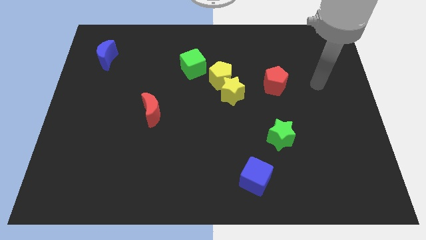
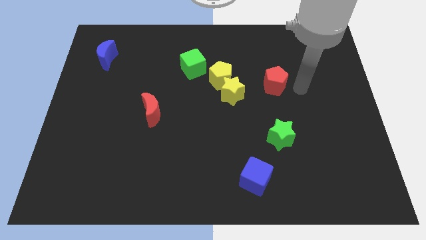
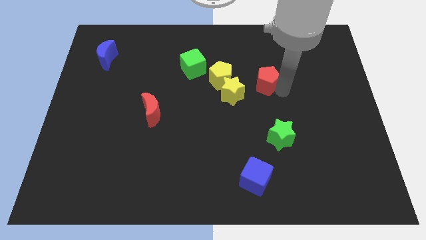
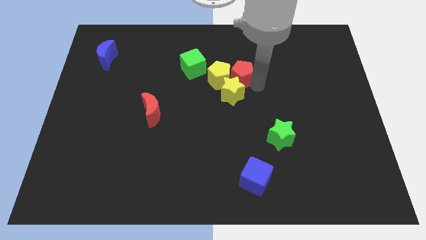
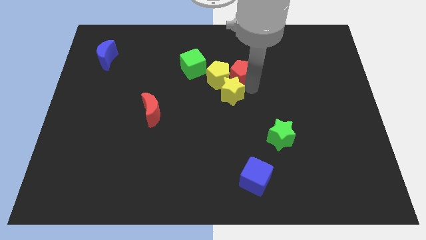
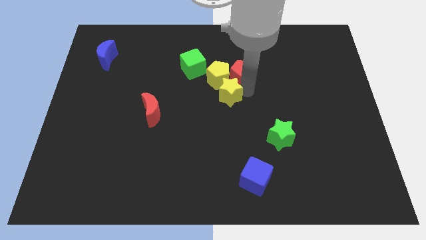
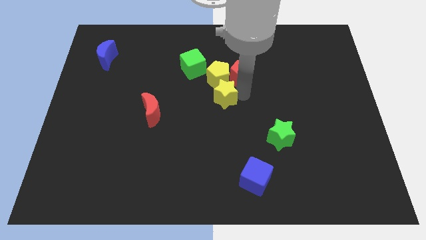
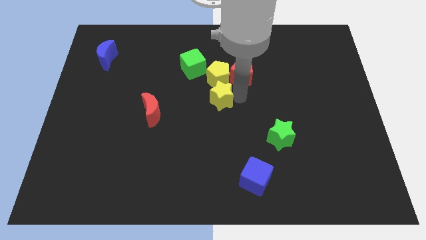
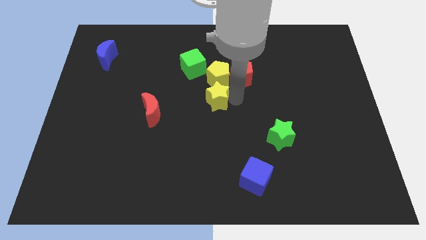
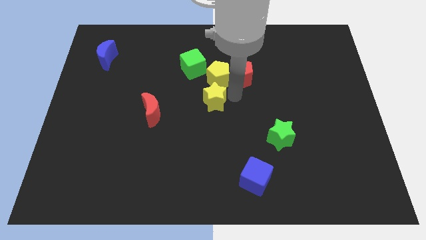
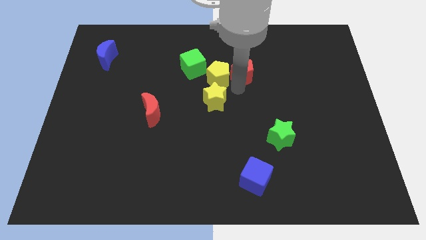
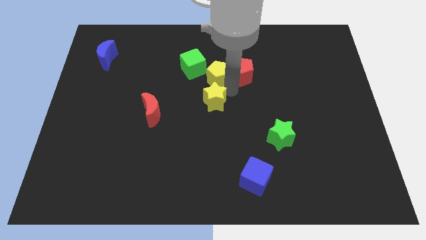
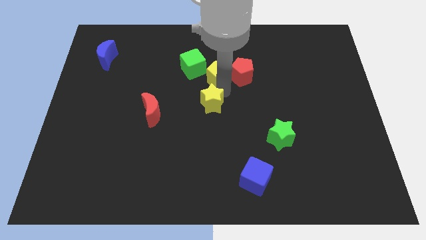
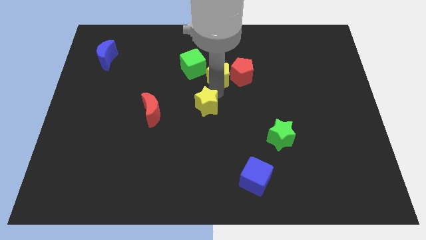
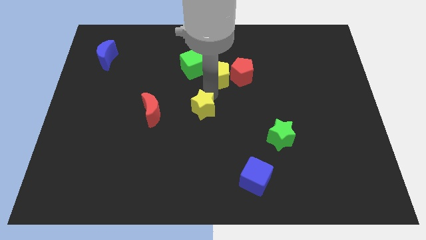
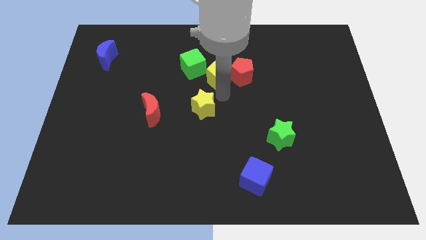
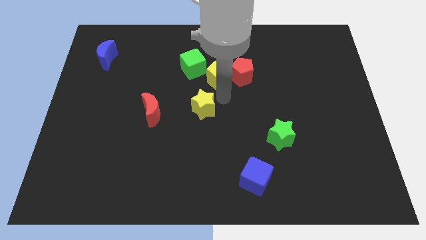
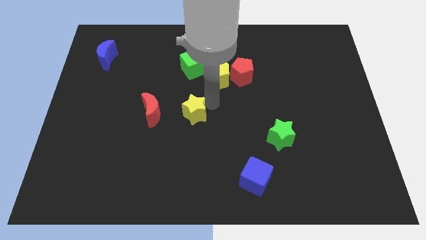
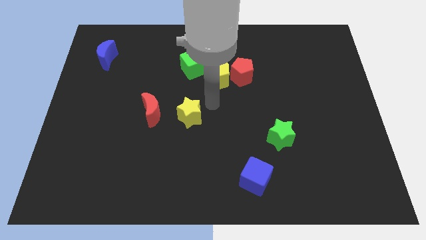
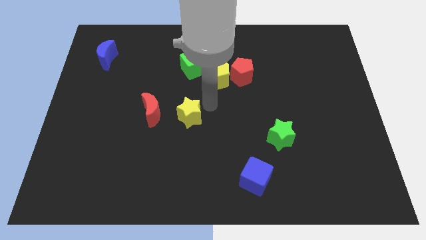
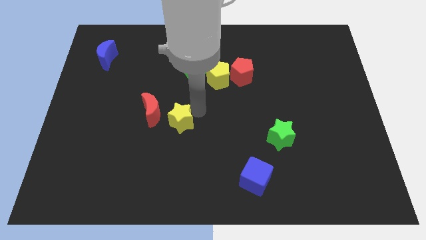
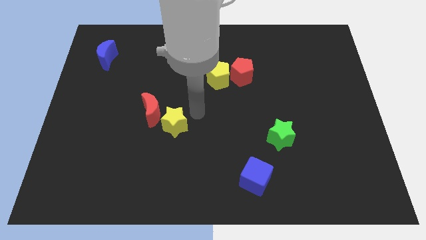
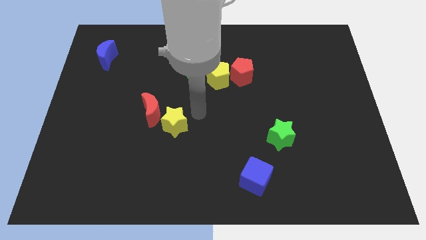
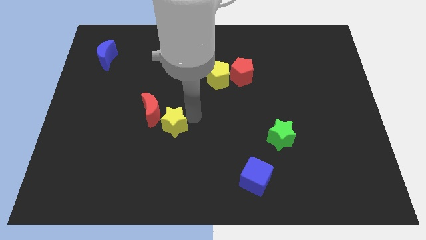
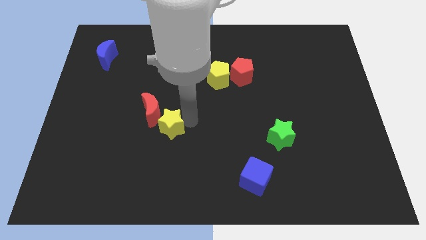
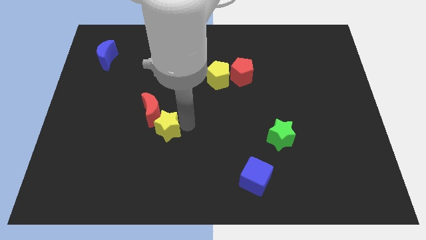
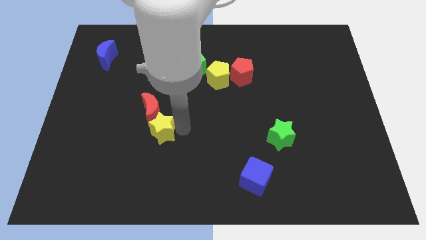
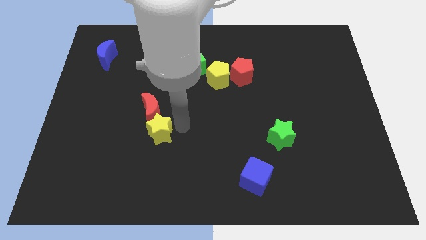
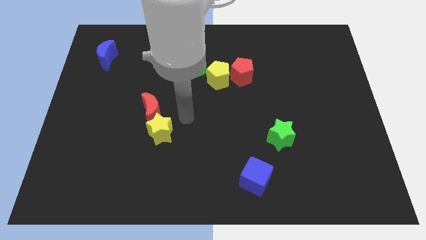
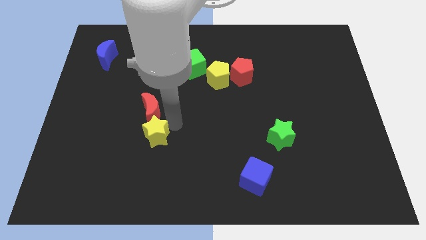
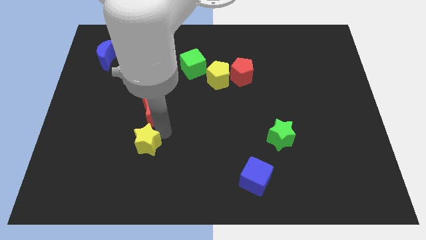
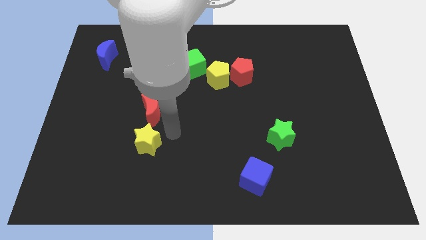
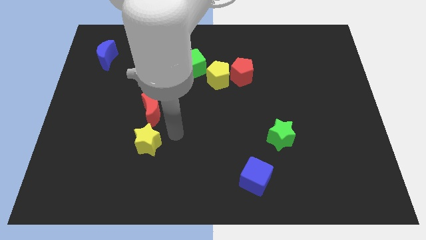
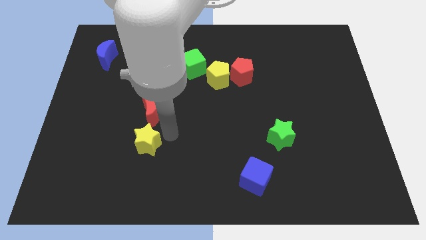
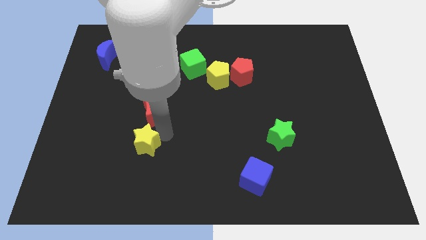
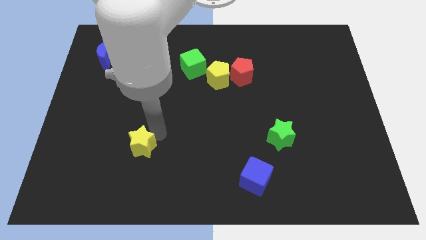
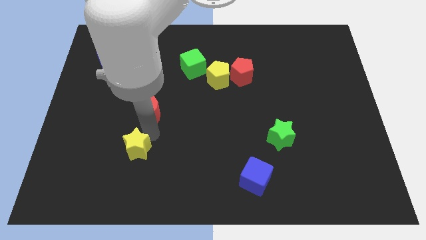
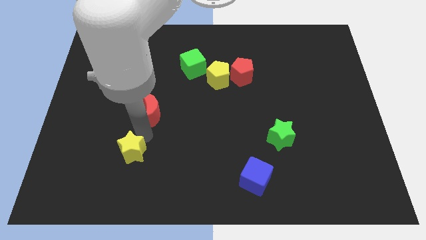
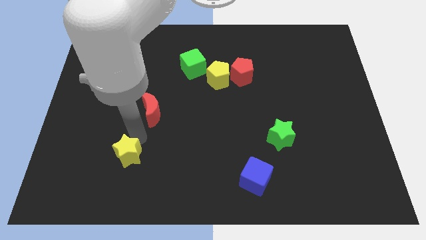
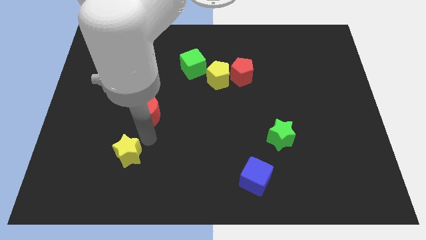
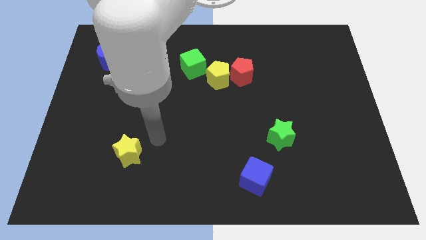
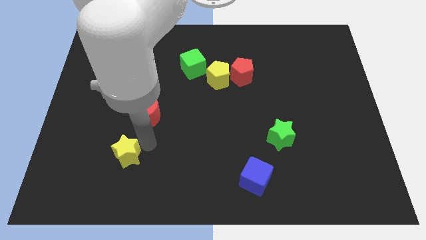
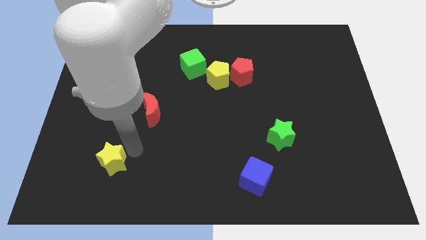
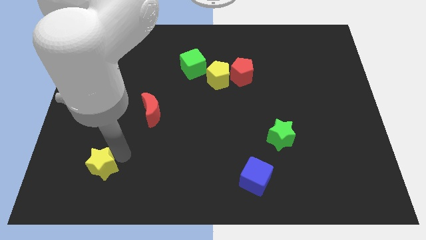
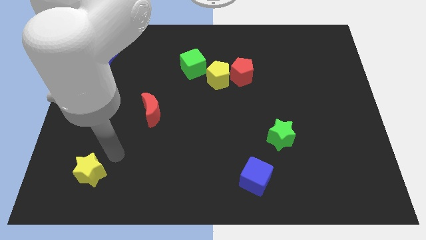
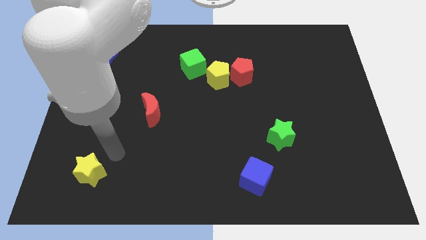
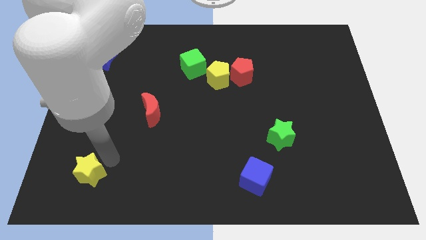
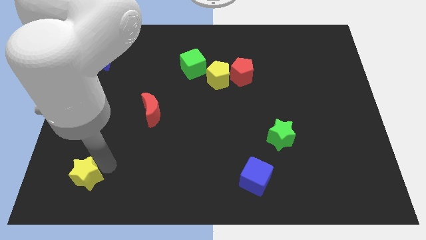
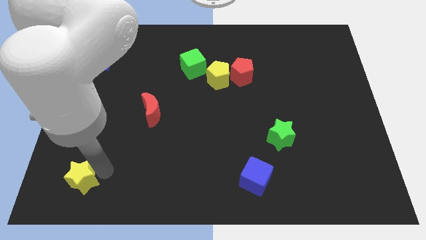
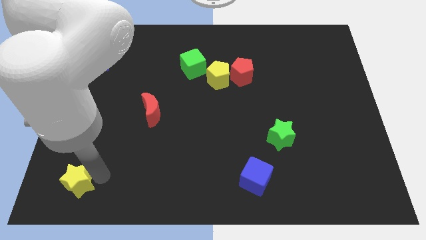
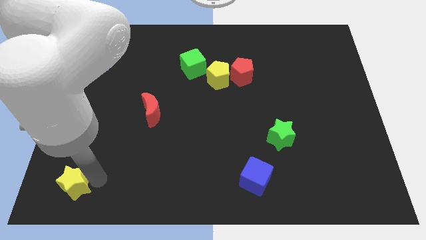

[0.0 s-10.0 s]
move the yellow star to the bottom left of the board

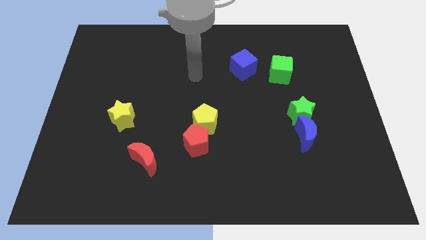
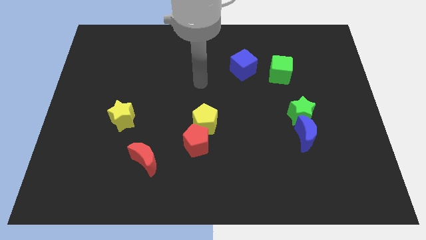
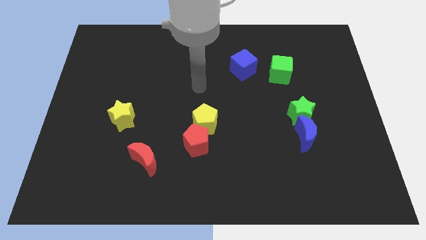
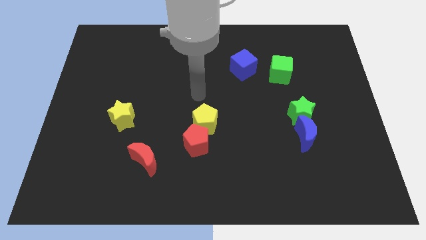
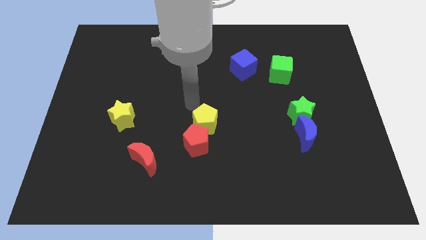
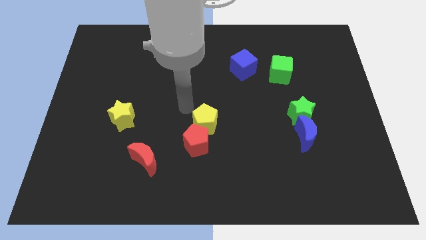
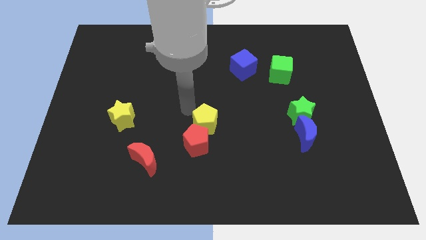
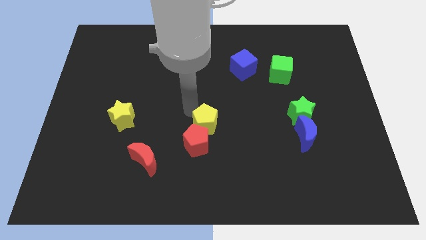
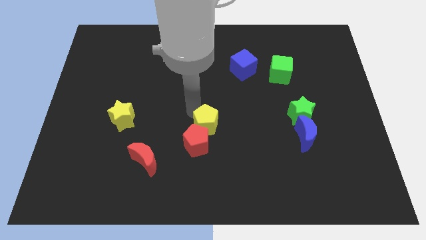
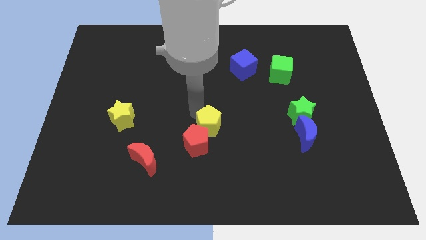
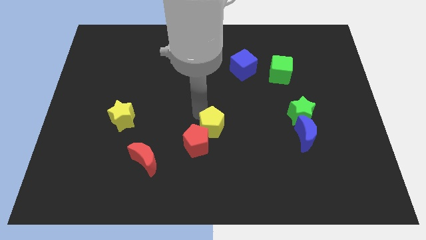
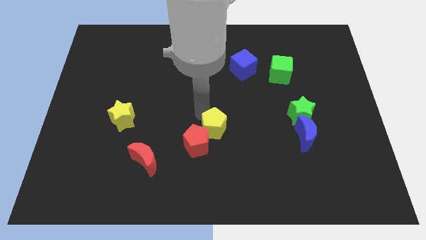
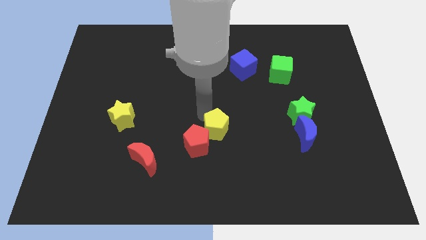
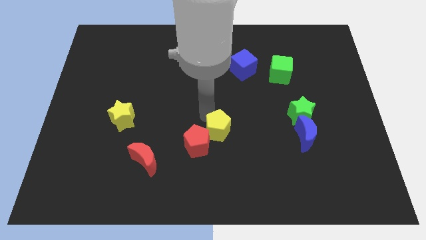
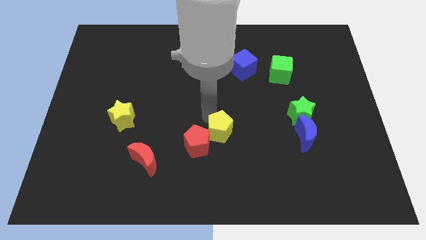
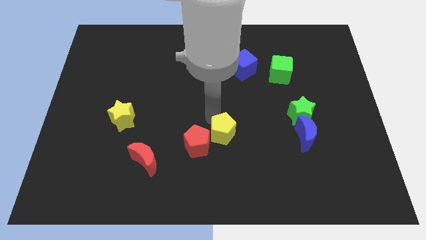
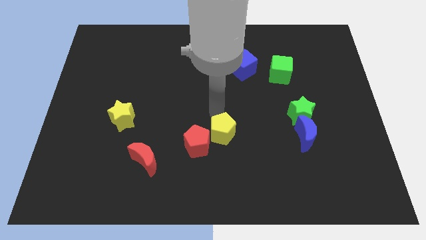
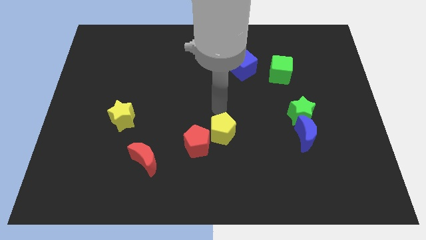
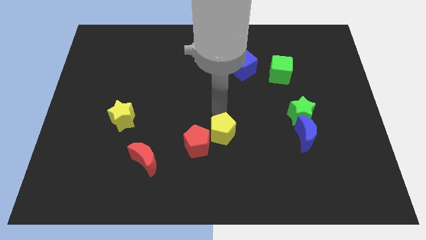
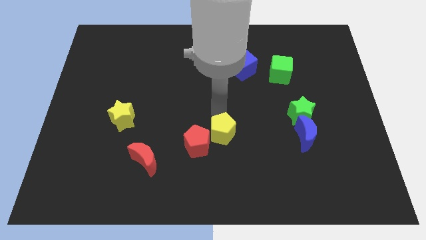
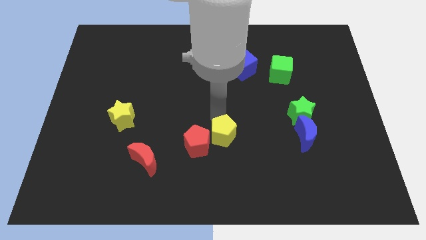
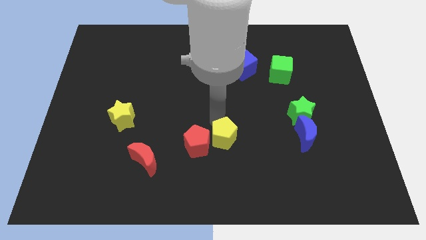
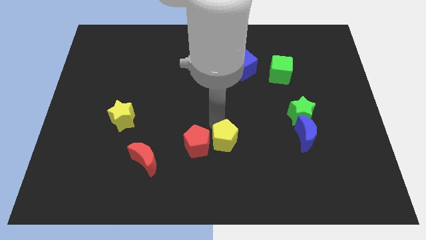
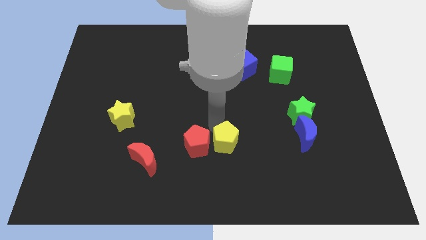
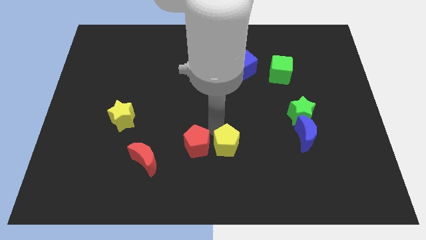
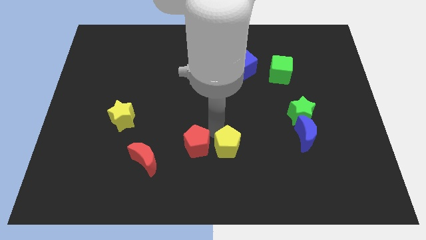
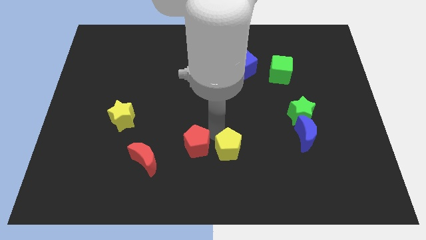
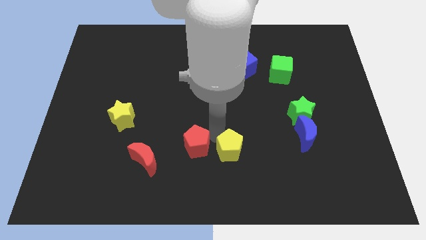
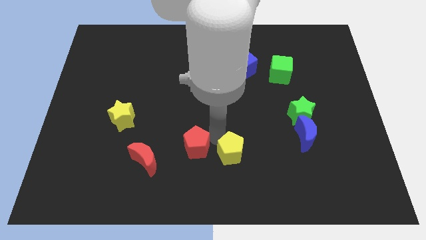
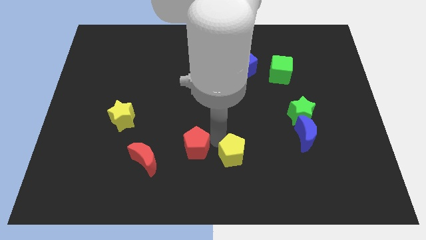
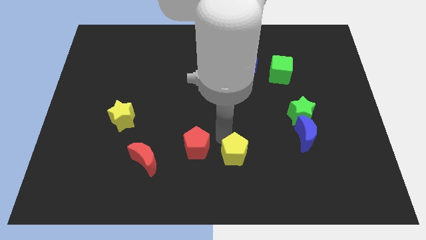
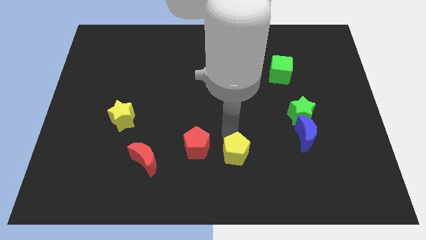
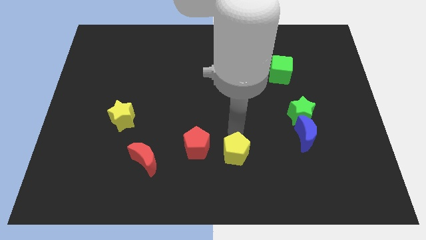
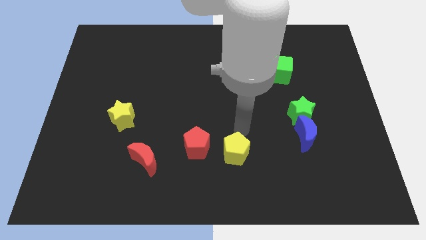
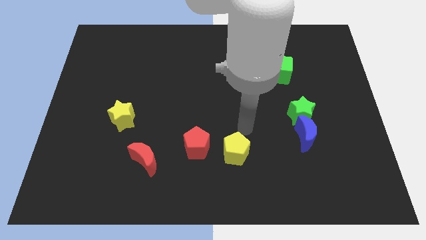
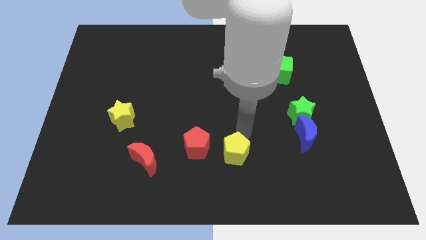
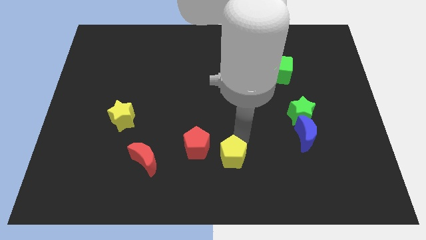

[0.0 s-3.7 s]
slide the yellow pentagon to the bottom
